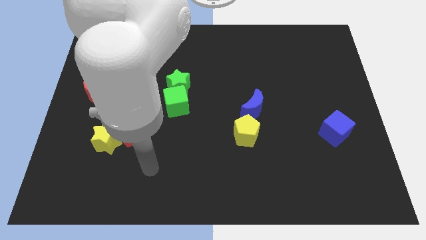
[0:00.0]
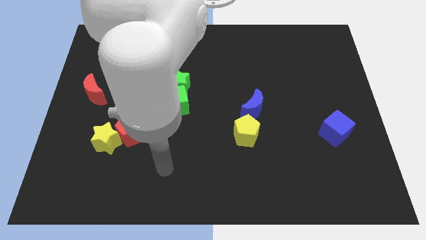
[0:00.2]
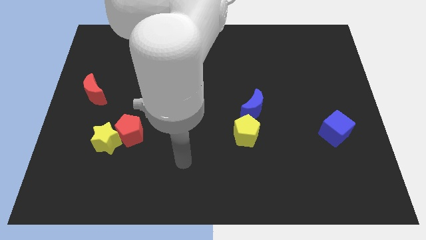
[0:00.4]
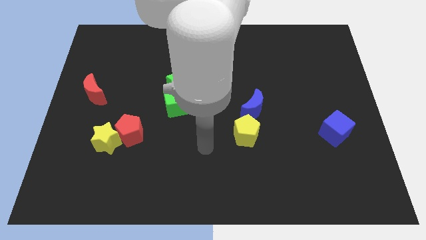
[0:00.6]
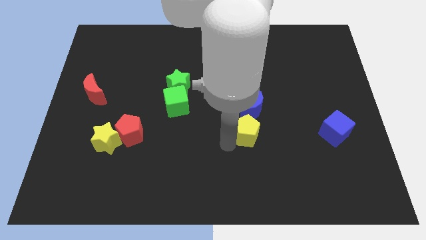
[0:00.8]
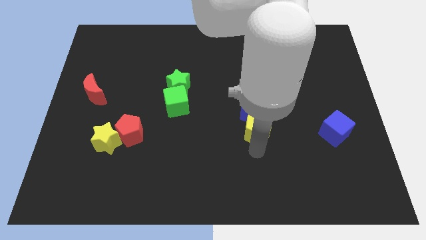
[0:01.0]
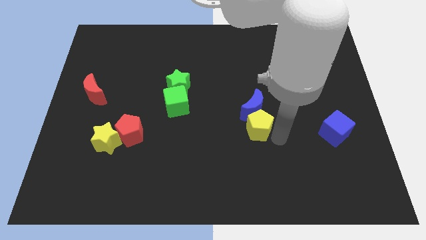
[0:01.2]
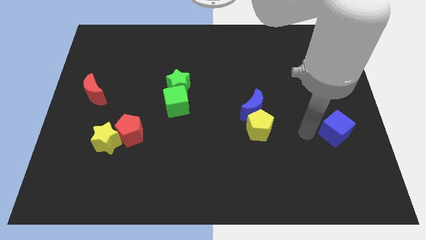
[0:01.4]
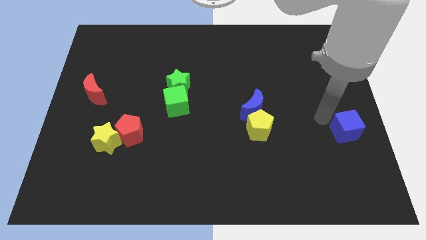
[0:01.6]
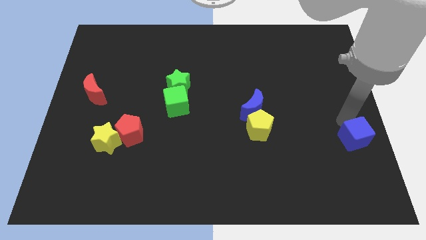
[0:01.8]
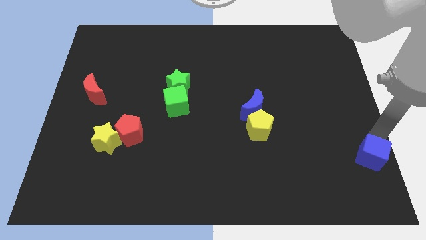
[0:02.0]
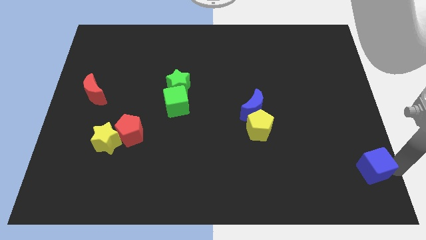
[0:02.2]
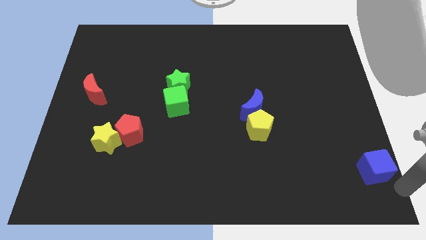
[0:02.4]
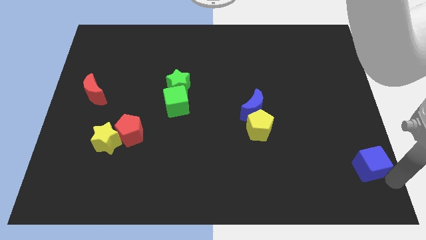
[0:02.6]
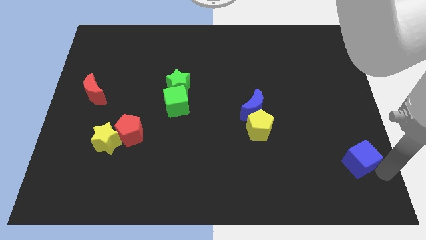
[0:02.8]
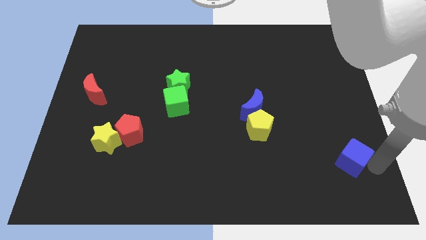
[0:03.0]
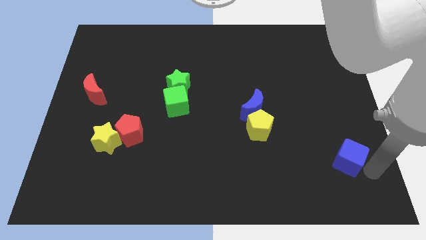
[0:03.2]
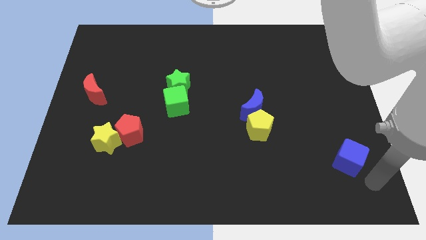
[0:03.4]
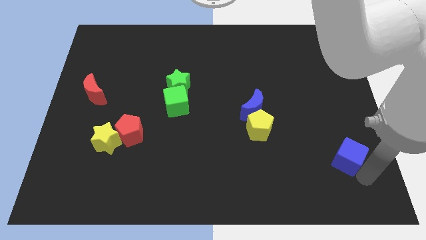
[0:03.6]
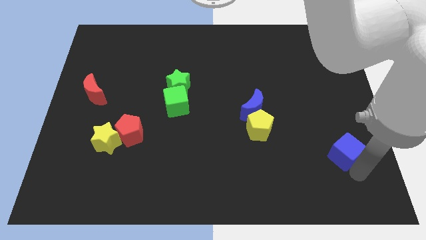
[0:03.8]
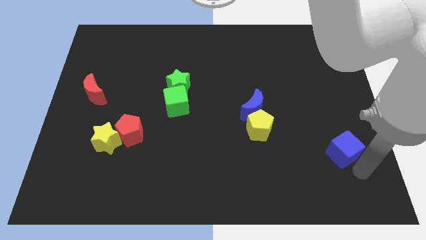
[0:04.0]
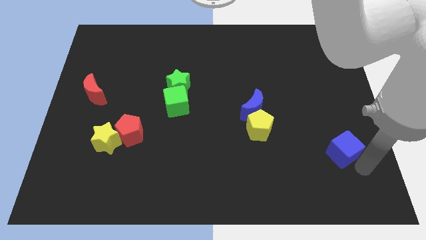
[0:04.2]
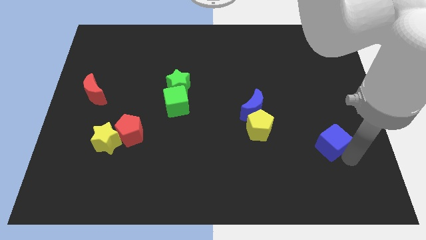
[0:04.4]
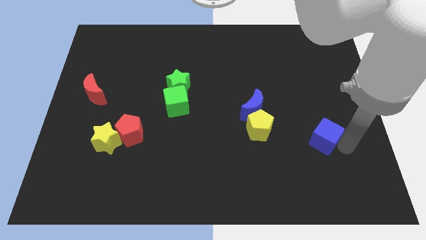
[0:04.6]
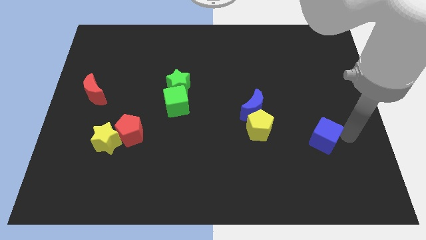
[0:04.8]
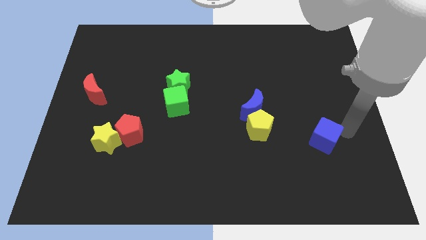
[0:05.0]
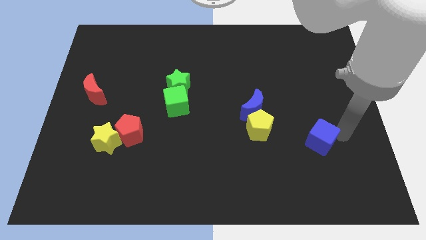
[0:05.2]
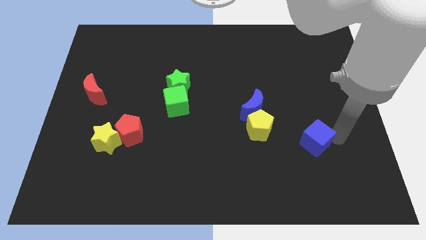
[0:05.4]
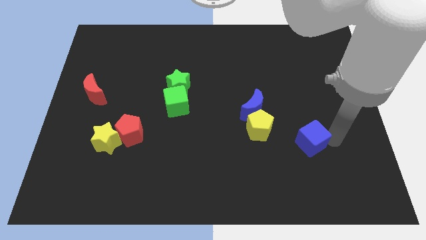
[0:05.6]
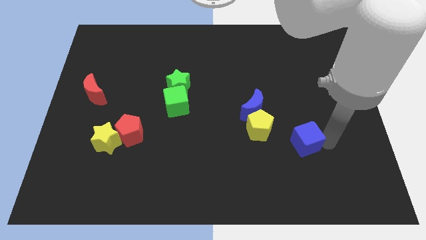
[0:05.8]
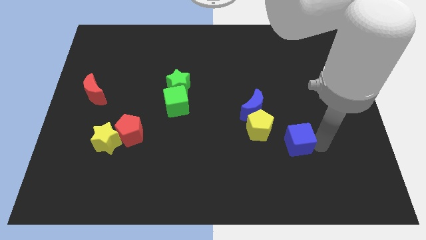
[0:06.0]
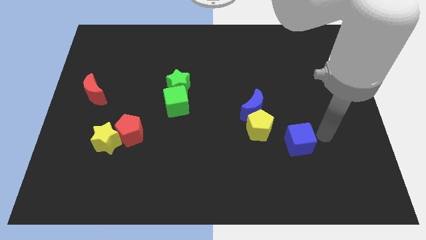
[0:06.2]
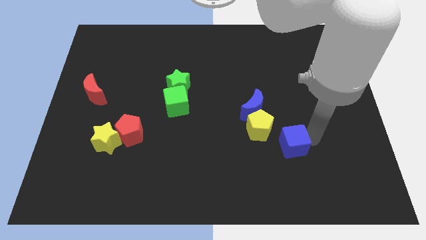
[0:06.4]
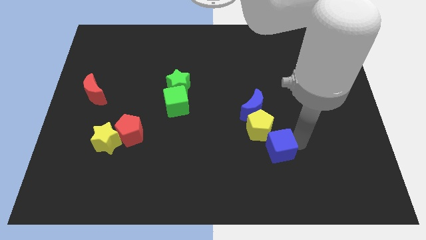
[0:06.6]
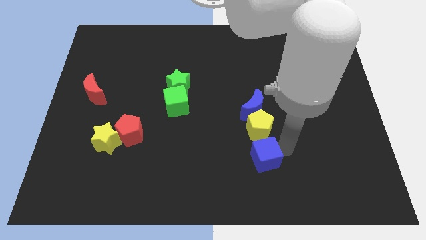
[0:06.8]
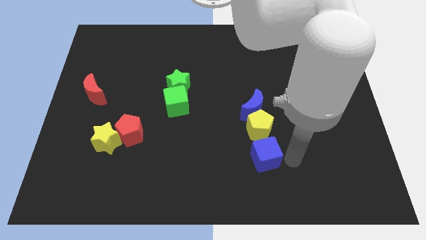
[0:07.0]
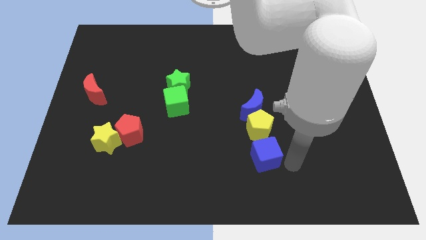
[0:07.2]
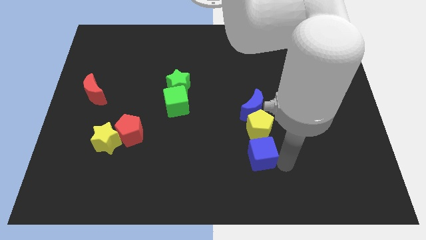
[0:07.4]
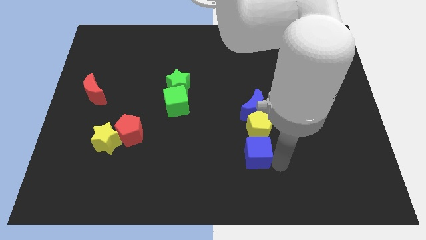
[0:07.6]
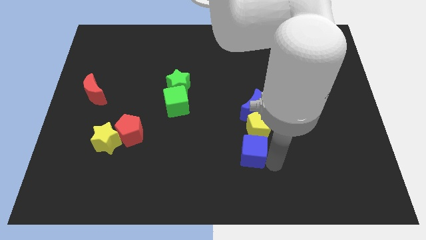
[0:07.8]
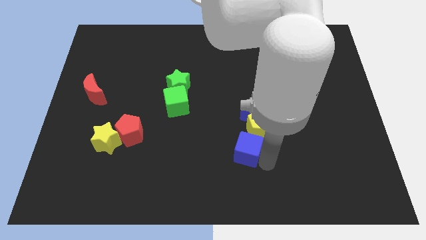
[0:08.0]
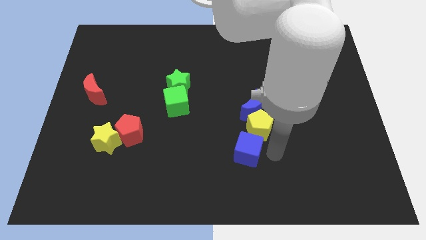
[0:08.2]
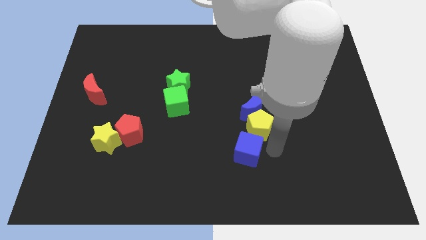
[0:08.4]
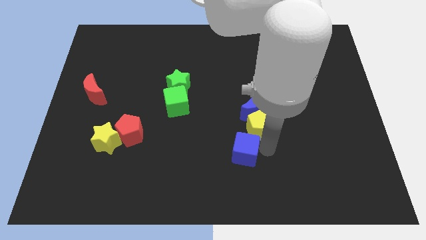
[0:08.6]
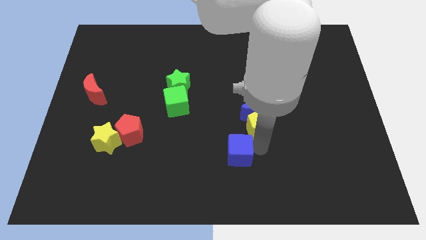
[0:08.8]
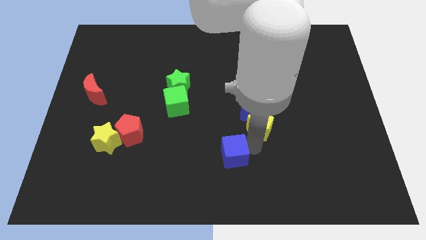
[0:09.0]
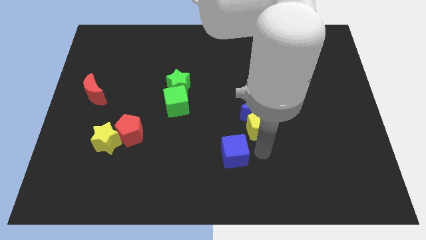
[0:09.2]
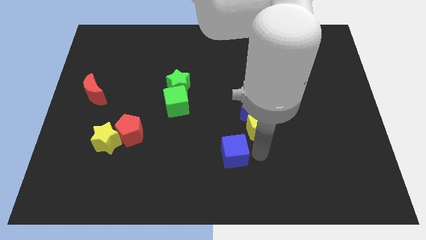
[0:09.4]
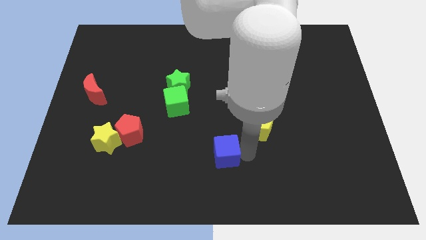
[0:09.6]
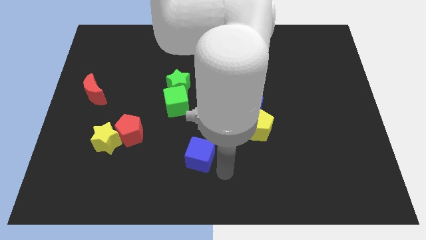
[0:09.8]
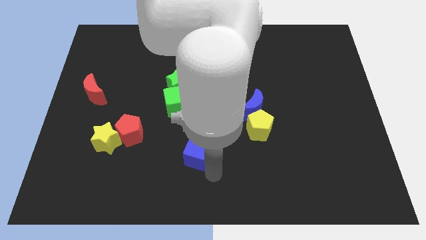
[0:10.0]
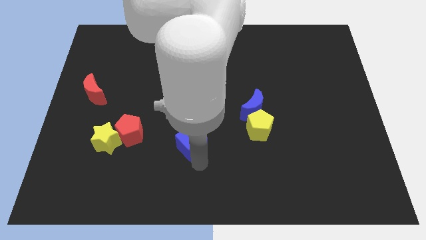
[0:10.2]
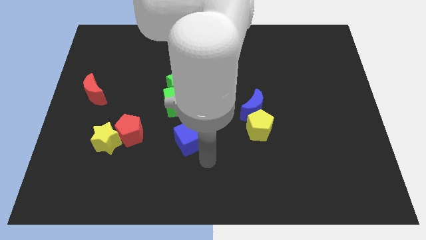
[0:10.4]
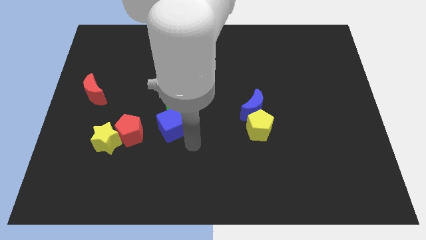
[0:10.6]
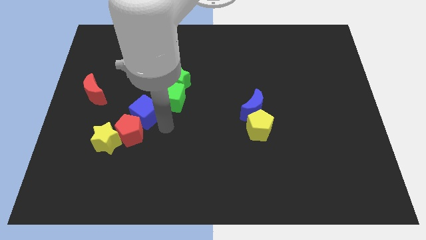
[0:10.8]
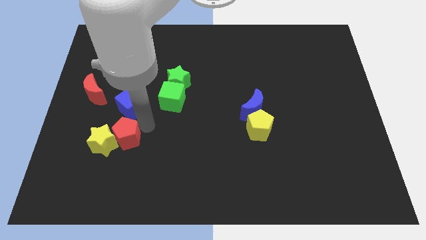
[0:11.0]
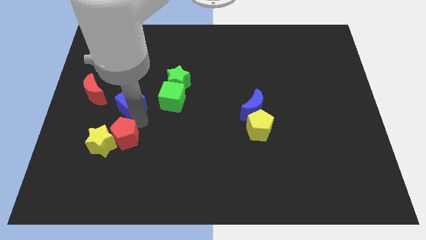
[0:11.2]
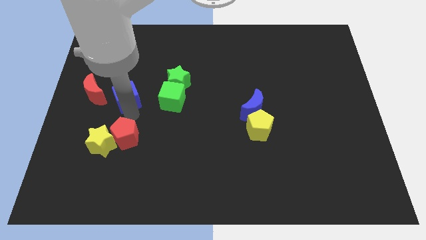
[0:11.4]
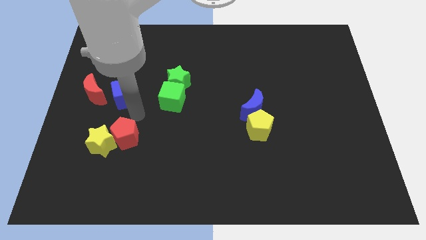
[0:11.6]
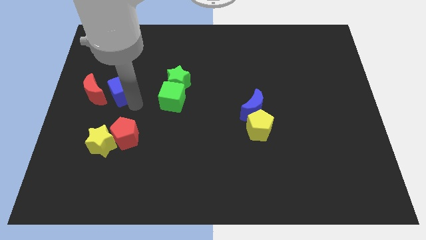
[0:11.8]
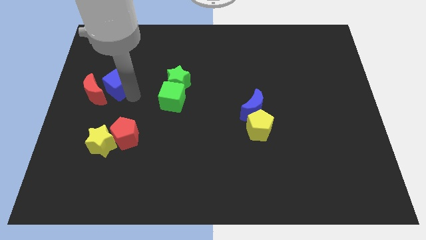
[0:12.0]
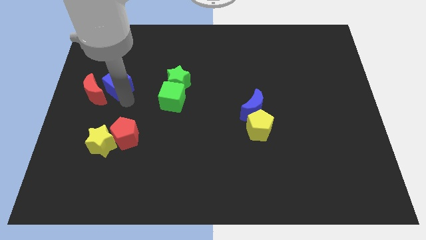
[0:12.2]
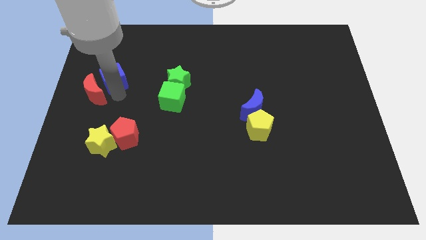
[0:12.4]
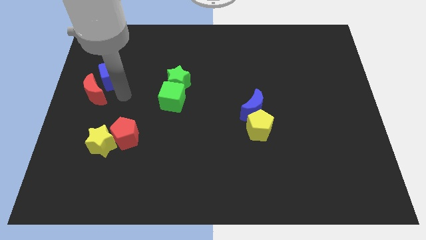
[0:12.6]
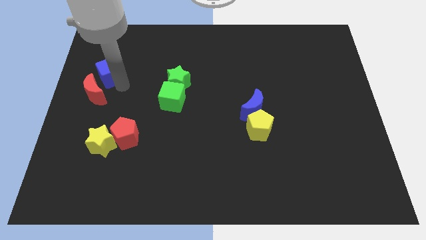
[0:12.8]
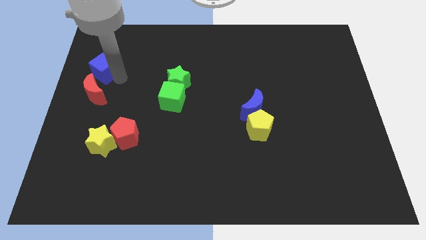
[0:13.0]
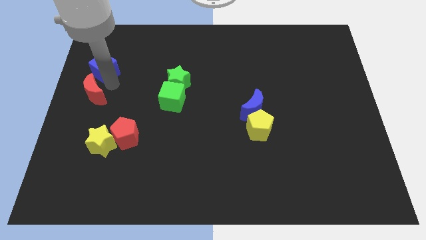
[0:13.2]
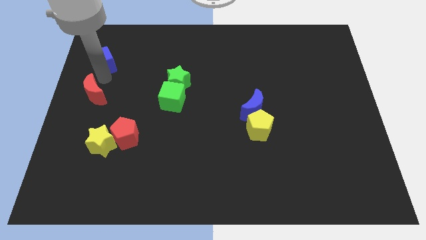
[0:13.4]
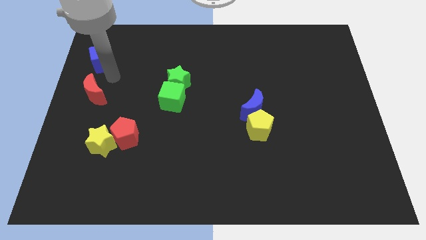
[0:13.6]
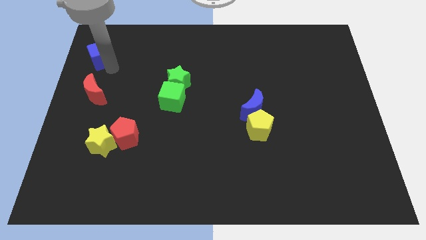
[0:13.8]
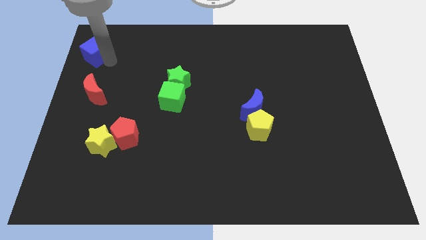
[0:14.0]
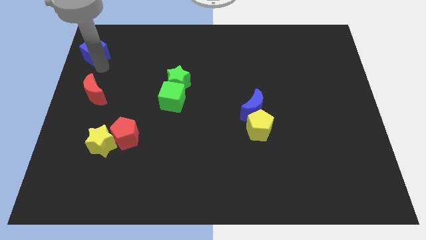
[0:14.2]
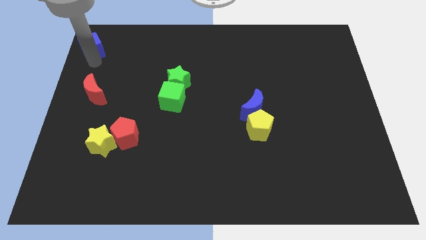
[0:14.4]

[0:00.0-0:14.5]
put the blue cube to the top left of the board
